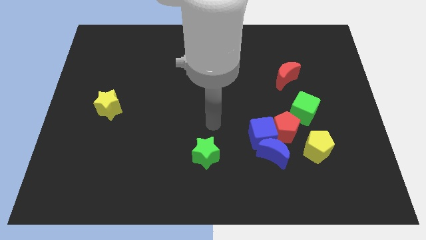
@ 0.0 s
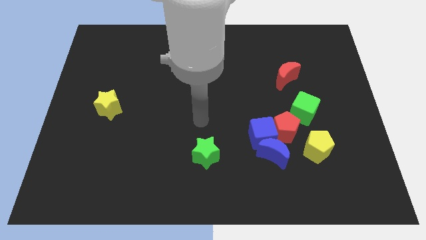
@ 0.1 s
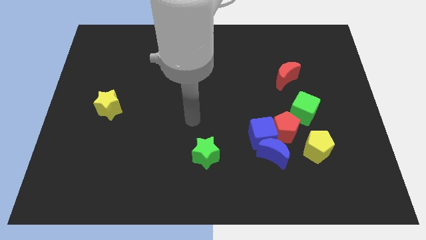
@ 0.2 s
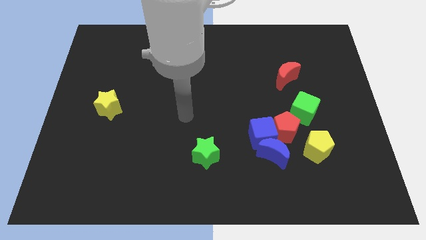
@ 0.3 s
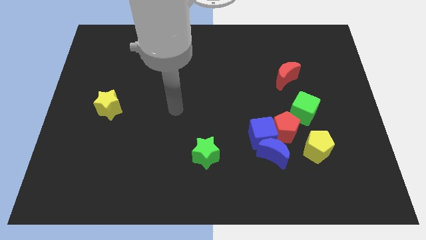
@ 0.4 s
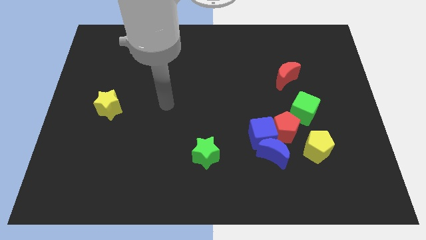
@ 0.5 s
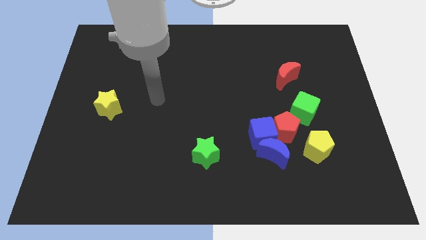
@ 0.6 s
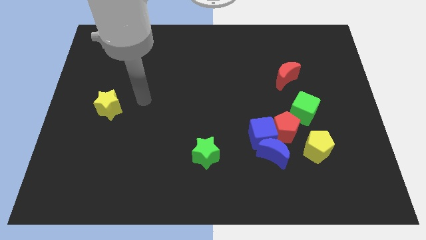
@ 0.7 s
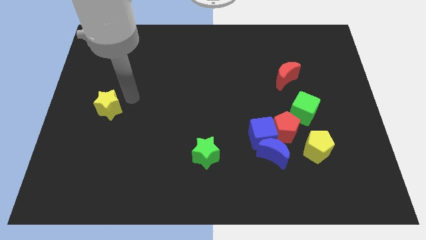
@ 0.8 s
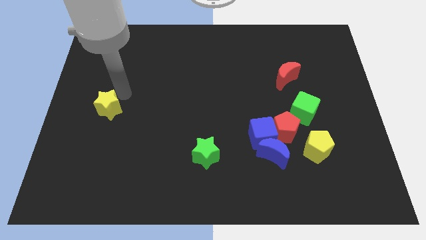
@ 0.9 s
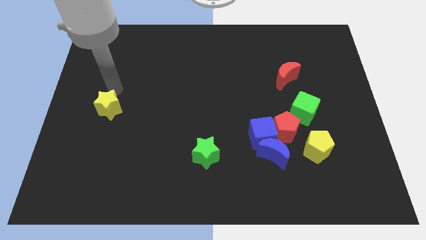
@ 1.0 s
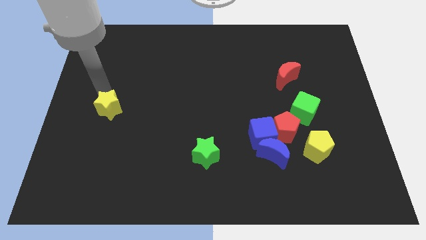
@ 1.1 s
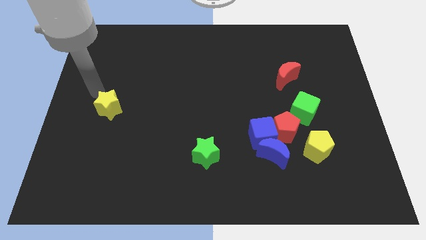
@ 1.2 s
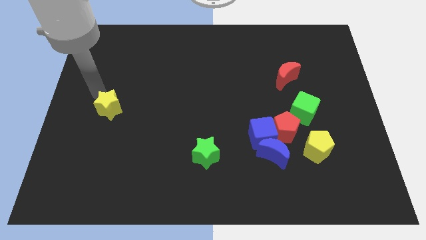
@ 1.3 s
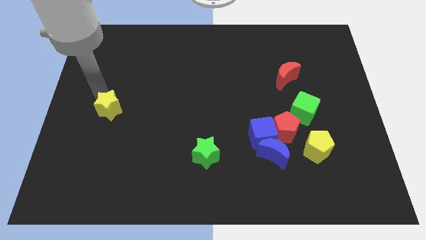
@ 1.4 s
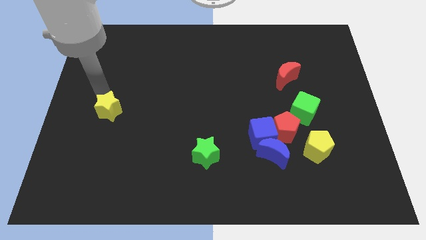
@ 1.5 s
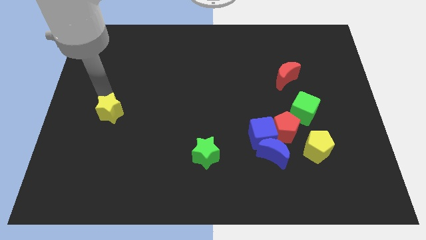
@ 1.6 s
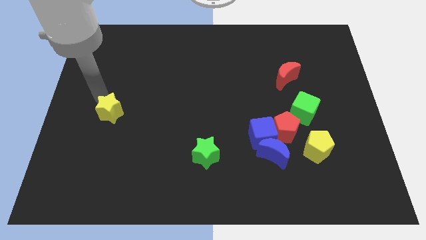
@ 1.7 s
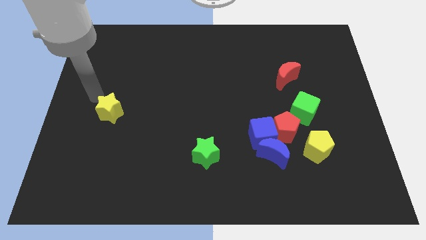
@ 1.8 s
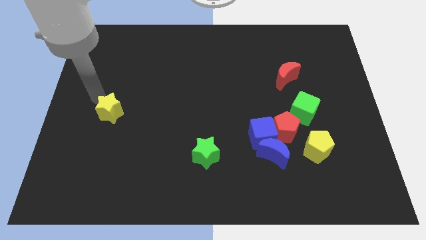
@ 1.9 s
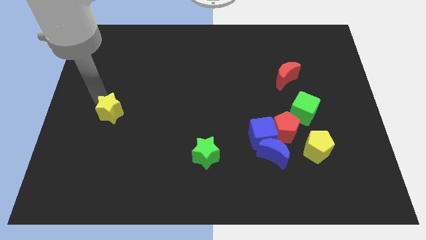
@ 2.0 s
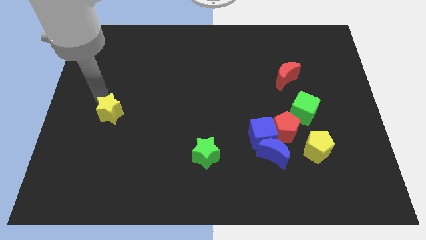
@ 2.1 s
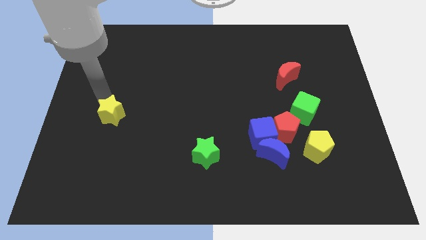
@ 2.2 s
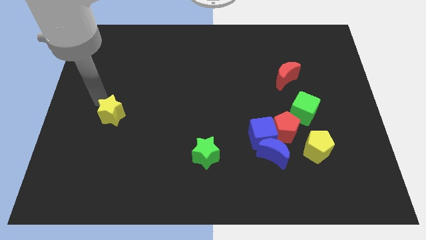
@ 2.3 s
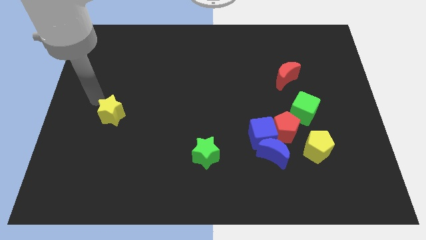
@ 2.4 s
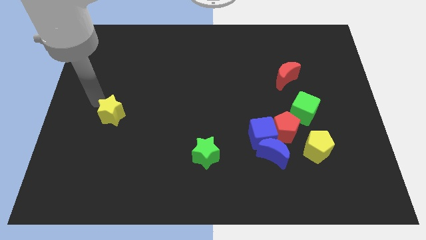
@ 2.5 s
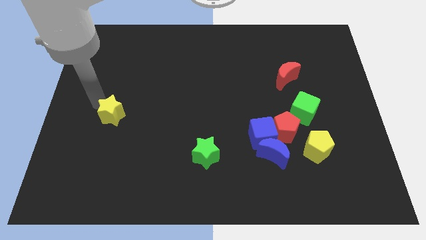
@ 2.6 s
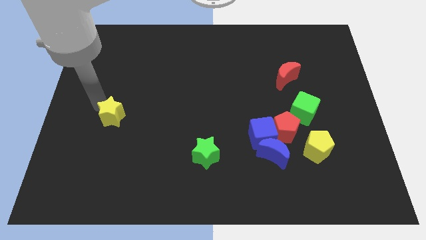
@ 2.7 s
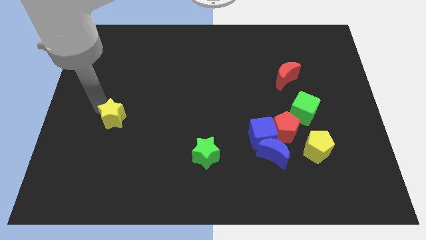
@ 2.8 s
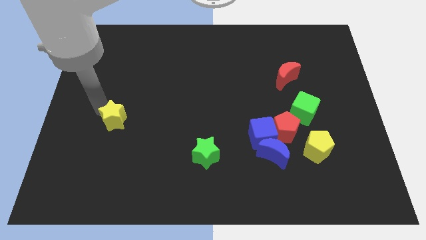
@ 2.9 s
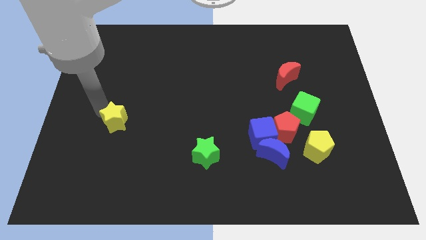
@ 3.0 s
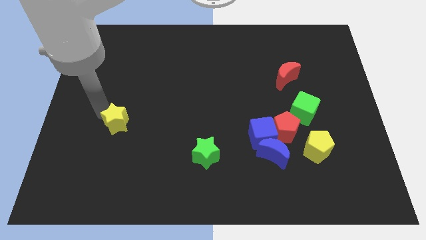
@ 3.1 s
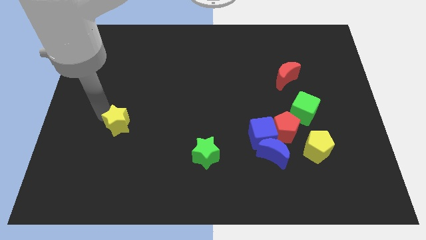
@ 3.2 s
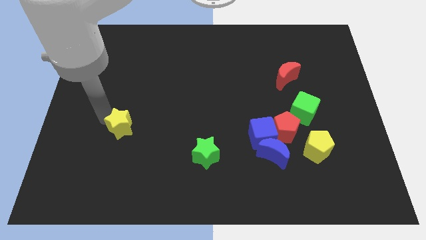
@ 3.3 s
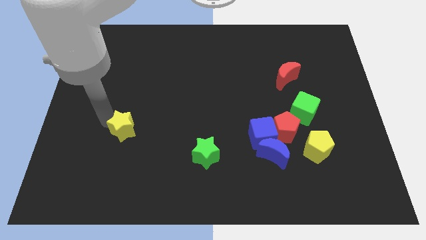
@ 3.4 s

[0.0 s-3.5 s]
slightly push the yellow star diagonally downwards and to the right
